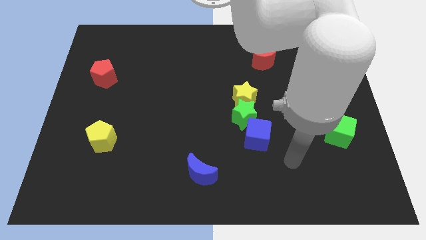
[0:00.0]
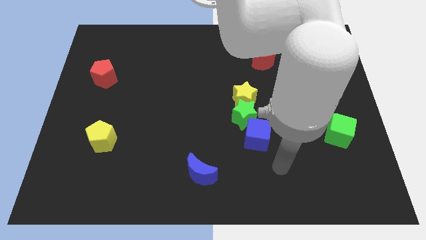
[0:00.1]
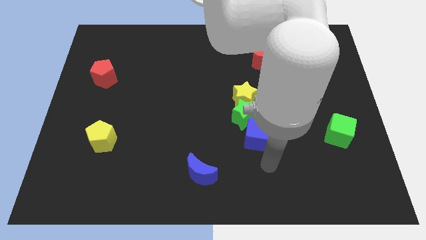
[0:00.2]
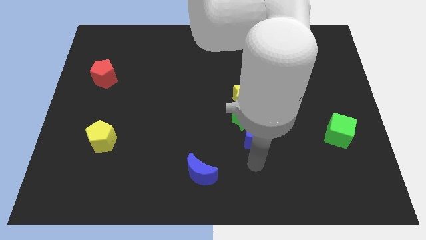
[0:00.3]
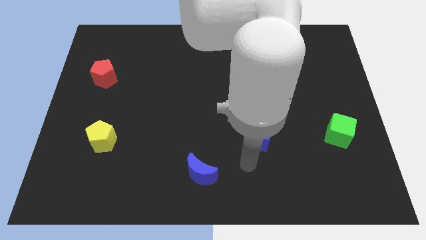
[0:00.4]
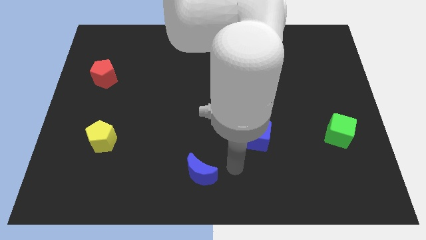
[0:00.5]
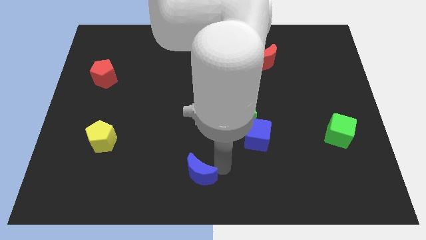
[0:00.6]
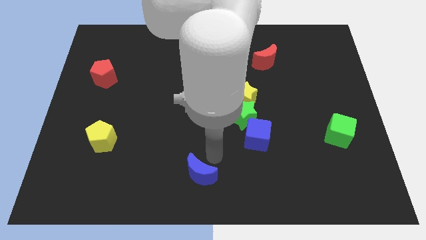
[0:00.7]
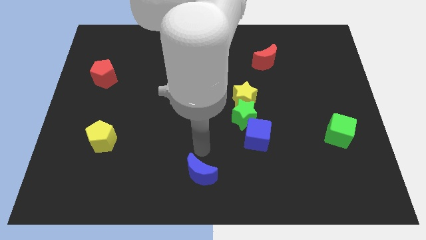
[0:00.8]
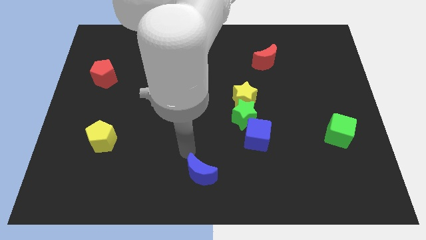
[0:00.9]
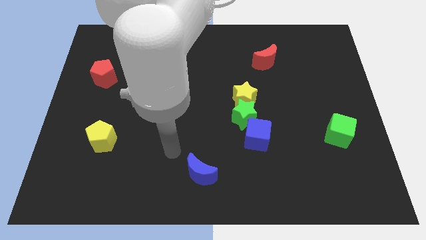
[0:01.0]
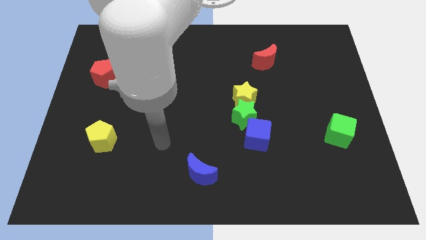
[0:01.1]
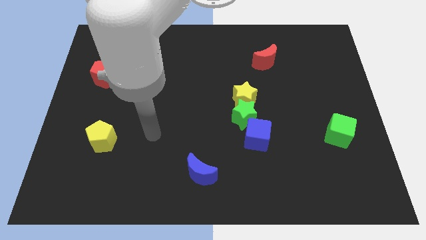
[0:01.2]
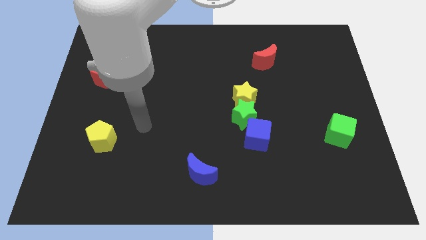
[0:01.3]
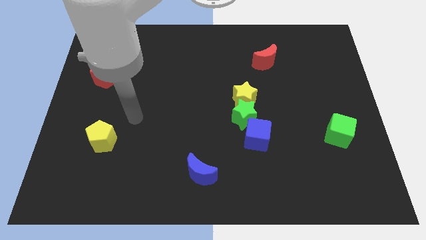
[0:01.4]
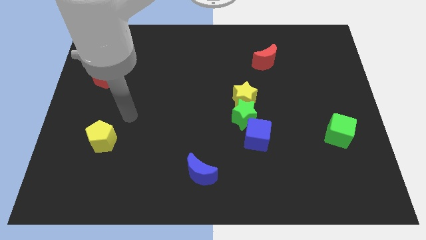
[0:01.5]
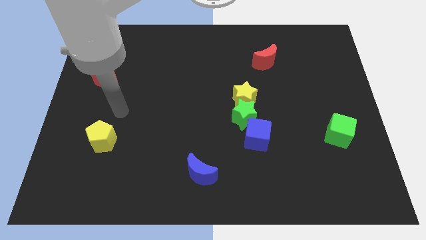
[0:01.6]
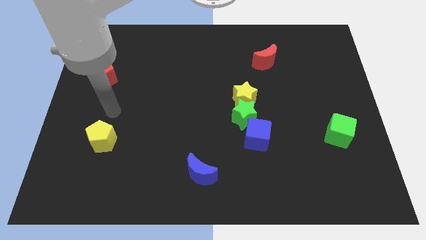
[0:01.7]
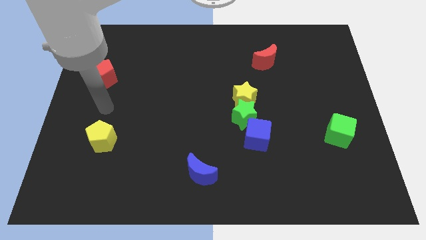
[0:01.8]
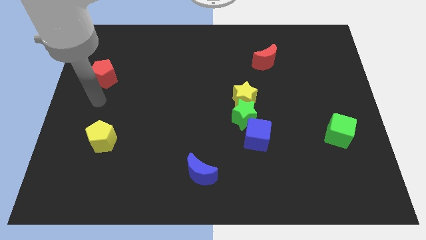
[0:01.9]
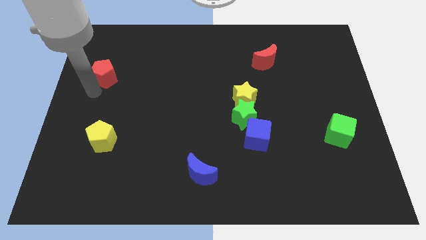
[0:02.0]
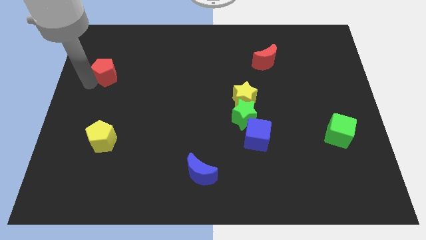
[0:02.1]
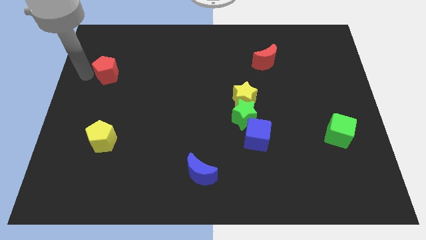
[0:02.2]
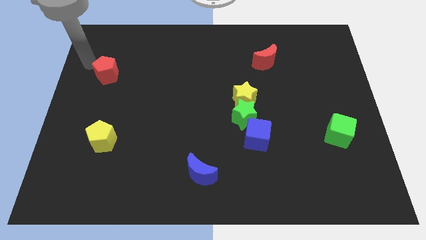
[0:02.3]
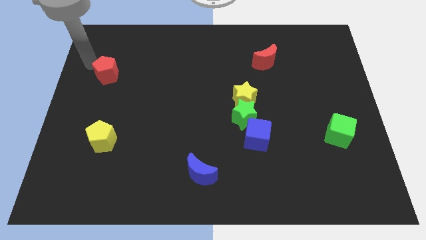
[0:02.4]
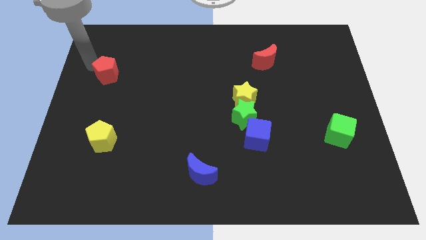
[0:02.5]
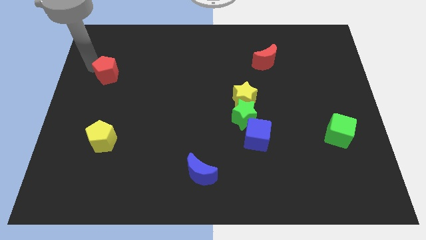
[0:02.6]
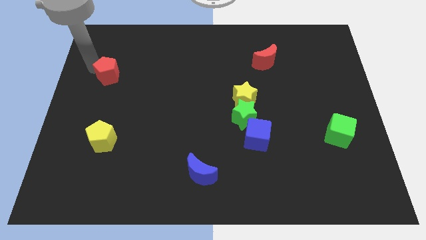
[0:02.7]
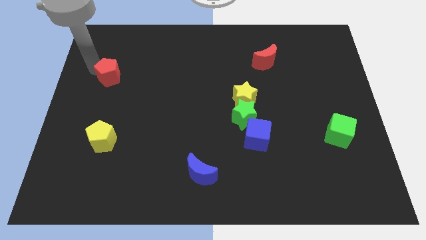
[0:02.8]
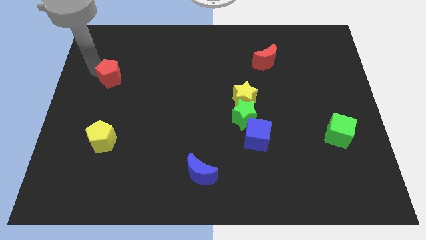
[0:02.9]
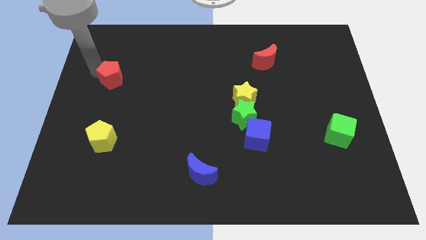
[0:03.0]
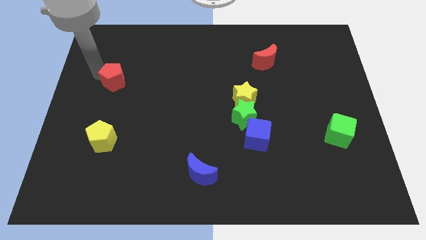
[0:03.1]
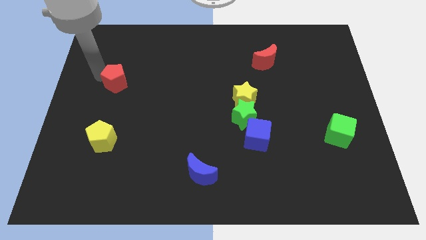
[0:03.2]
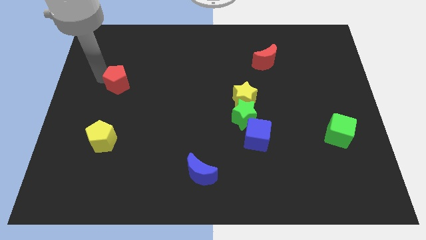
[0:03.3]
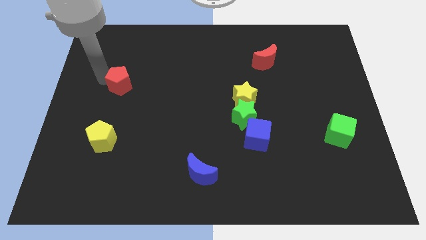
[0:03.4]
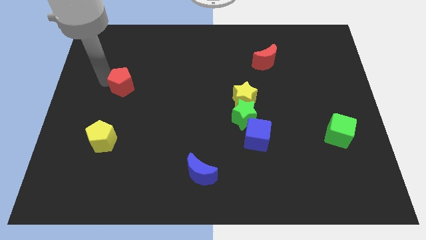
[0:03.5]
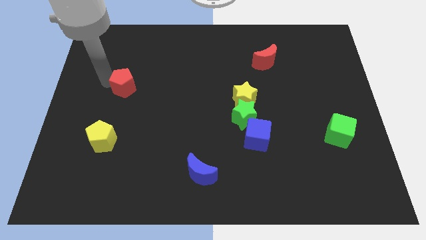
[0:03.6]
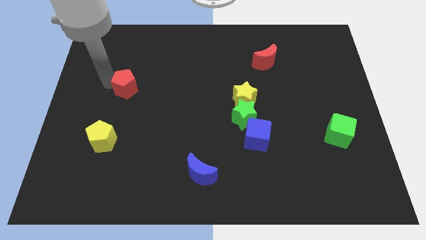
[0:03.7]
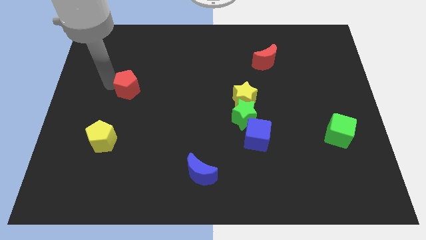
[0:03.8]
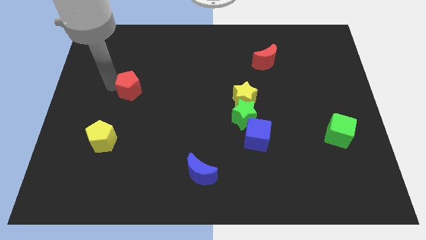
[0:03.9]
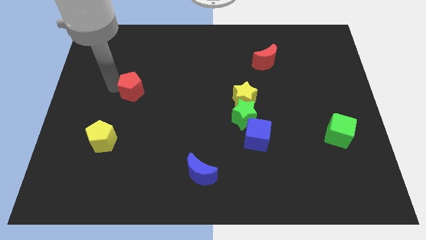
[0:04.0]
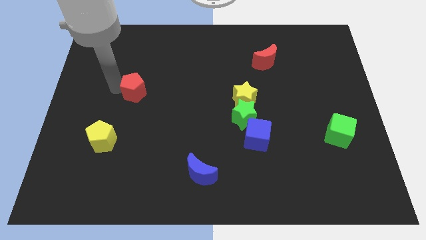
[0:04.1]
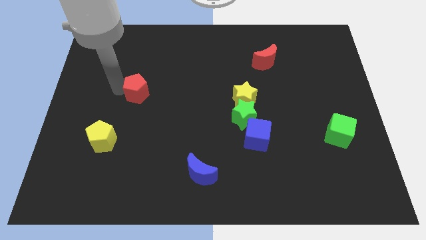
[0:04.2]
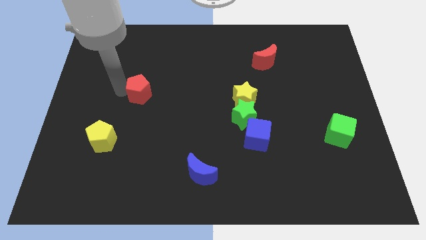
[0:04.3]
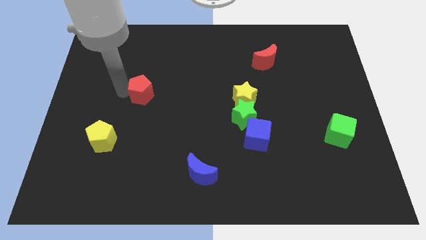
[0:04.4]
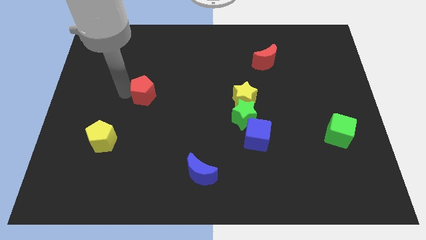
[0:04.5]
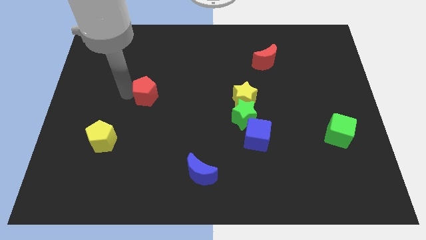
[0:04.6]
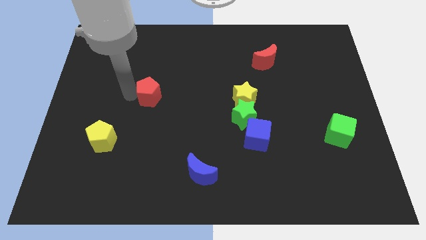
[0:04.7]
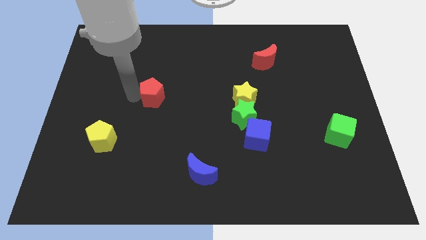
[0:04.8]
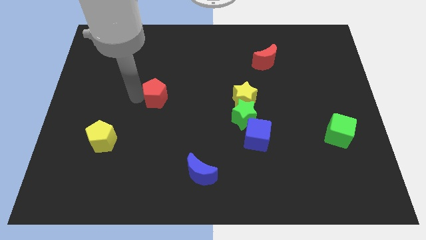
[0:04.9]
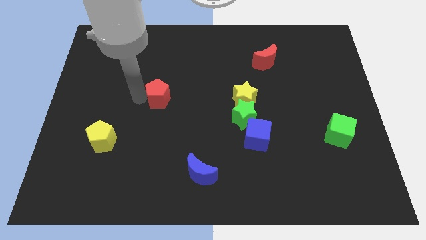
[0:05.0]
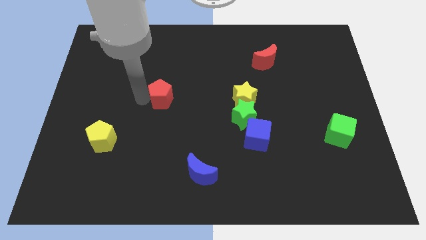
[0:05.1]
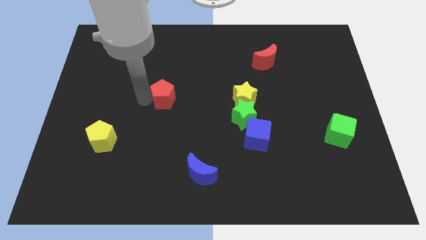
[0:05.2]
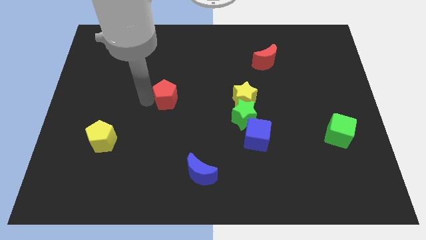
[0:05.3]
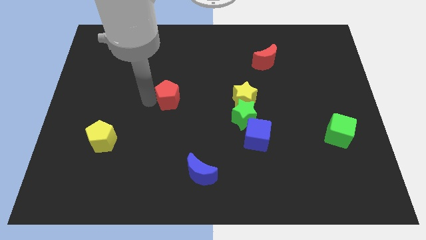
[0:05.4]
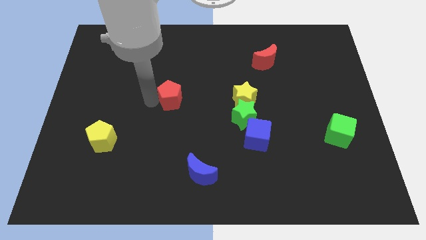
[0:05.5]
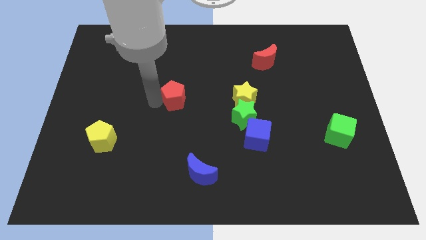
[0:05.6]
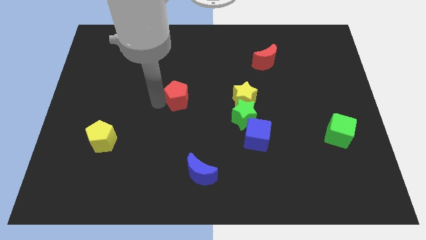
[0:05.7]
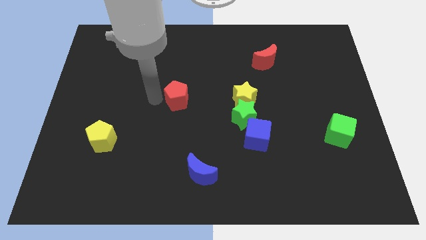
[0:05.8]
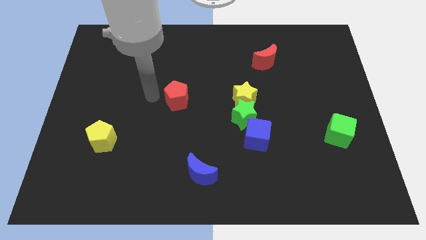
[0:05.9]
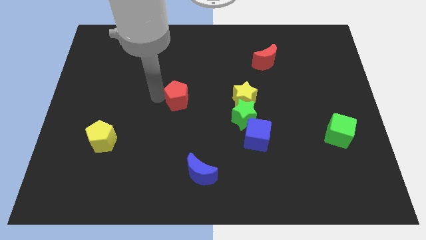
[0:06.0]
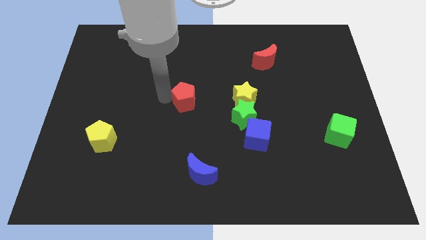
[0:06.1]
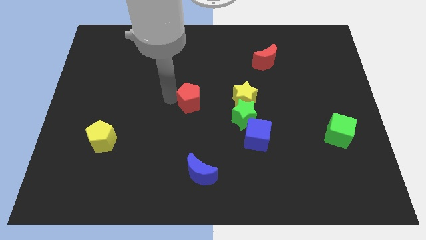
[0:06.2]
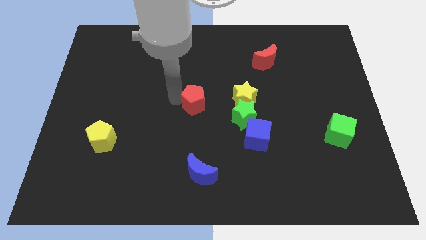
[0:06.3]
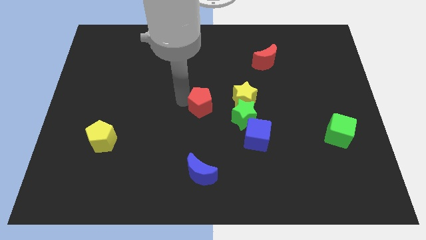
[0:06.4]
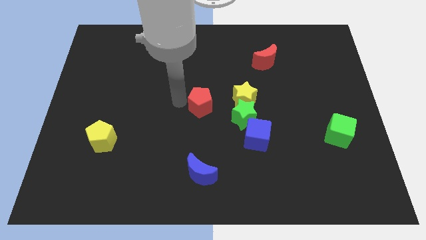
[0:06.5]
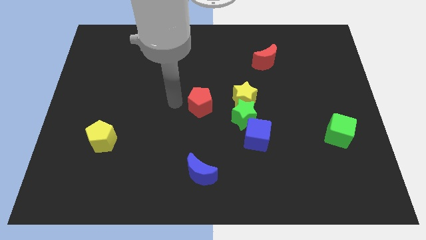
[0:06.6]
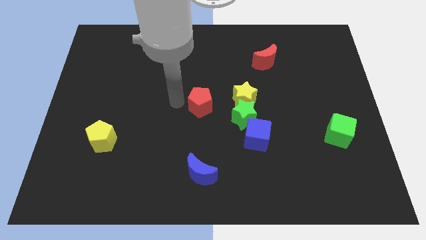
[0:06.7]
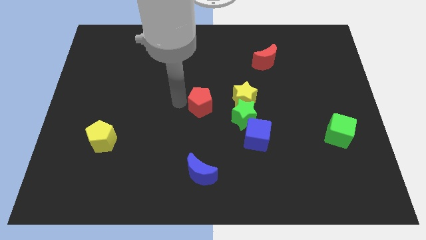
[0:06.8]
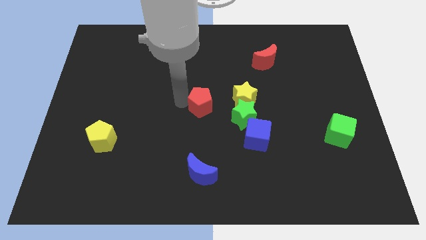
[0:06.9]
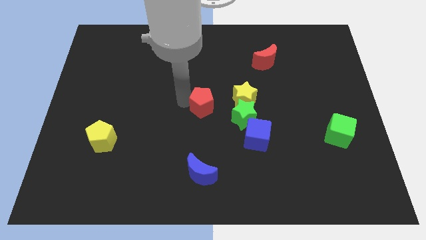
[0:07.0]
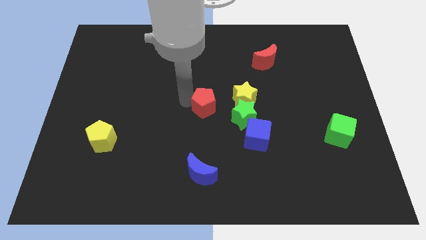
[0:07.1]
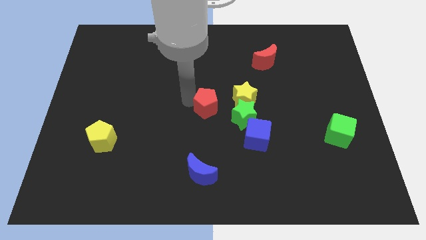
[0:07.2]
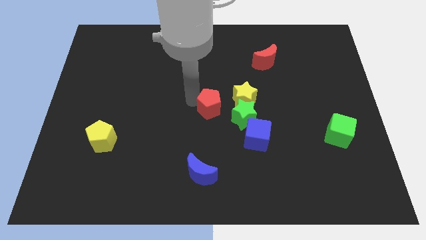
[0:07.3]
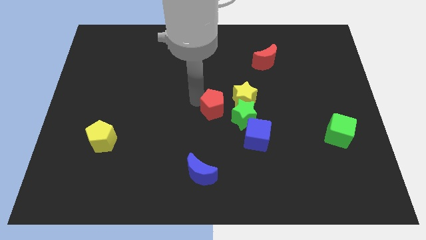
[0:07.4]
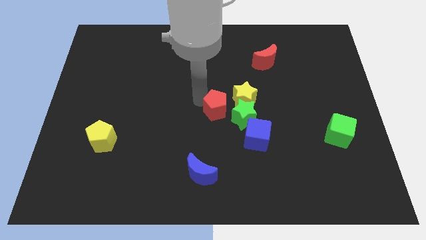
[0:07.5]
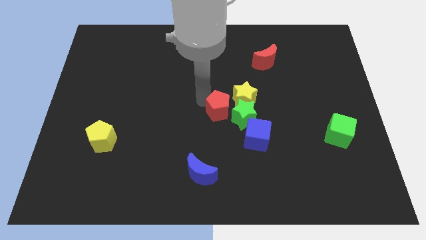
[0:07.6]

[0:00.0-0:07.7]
push the red pentagon next to the green star
